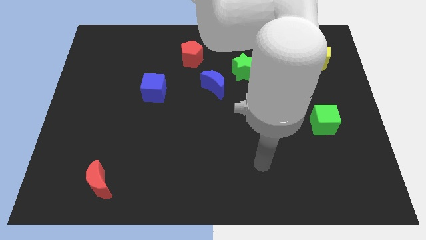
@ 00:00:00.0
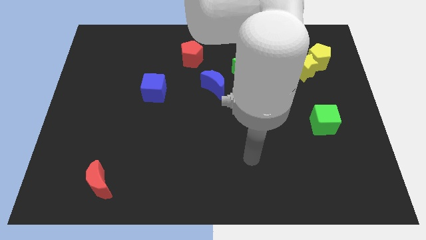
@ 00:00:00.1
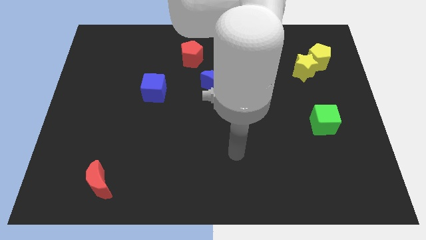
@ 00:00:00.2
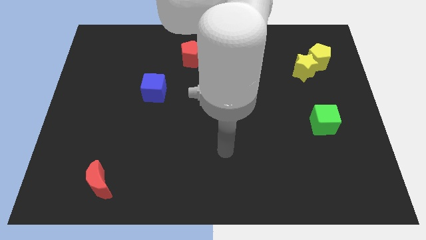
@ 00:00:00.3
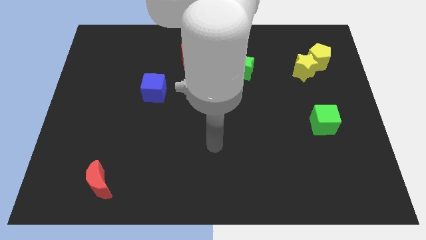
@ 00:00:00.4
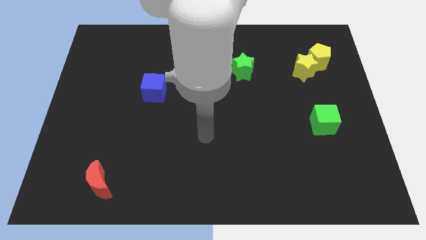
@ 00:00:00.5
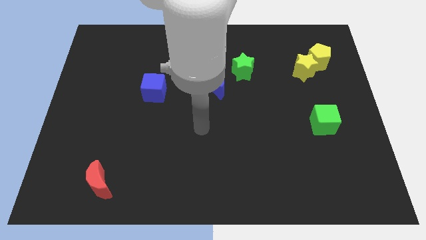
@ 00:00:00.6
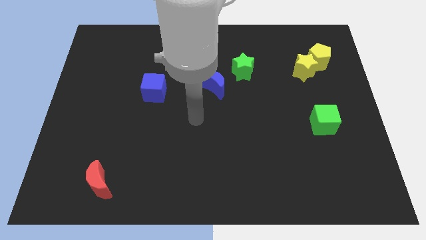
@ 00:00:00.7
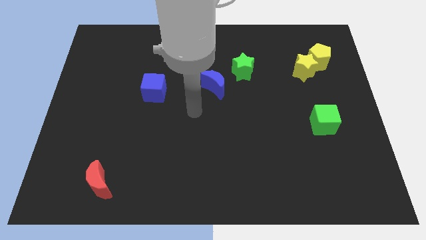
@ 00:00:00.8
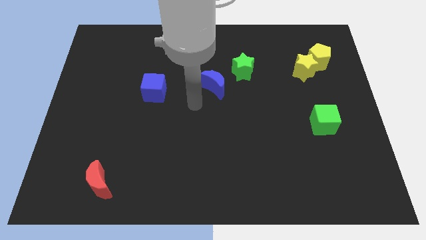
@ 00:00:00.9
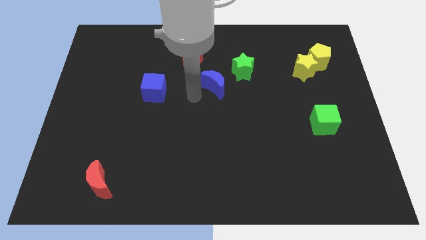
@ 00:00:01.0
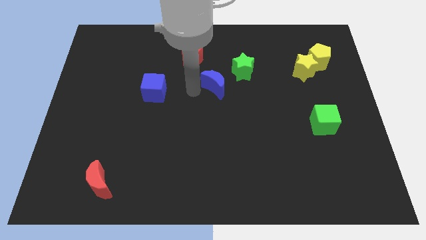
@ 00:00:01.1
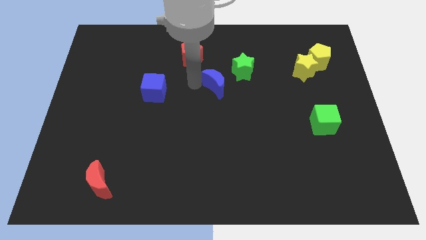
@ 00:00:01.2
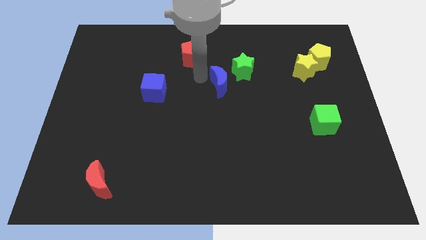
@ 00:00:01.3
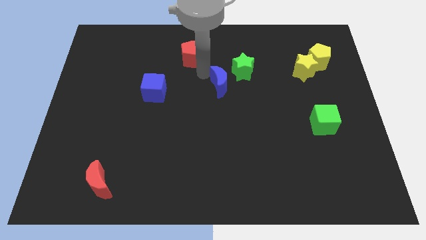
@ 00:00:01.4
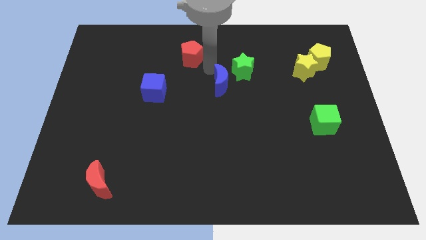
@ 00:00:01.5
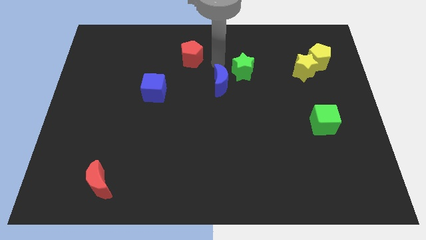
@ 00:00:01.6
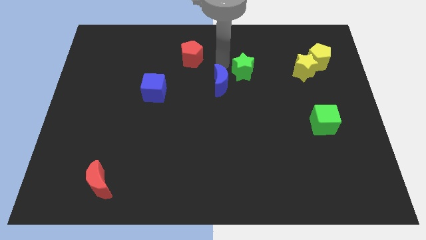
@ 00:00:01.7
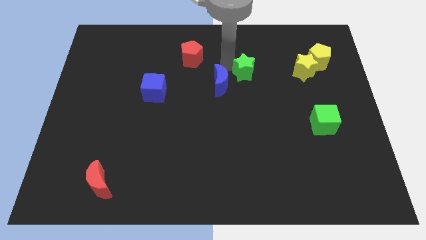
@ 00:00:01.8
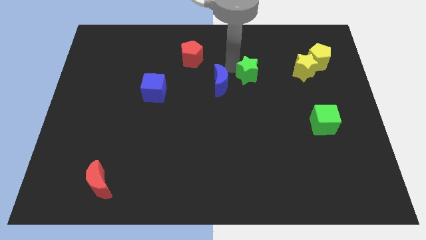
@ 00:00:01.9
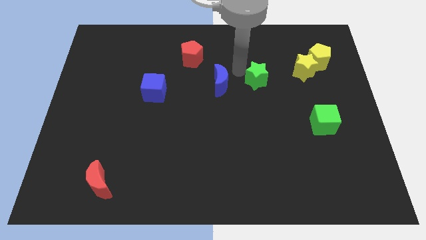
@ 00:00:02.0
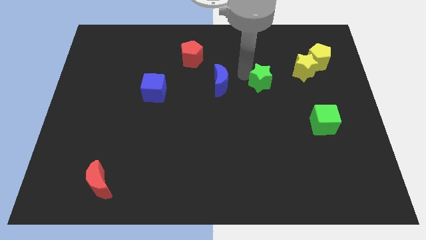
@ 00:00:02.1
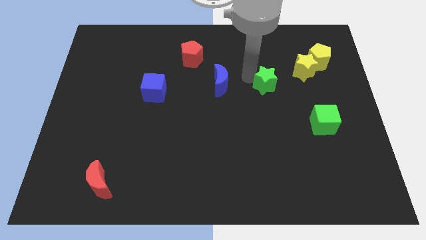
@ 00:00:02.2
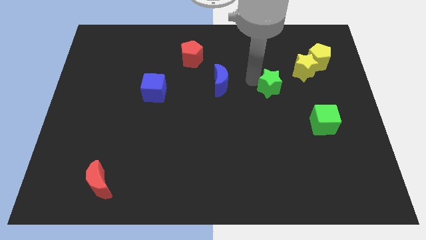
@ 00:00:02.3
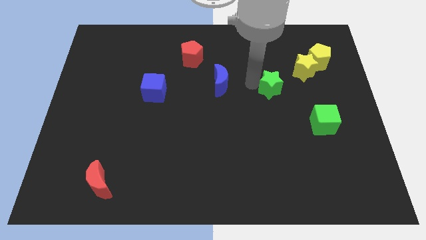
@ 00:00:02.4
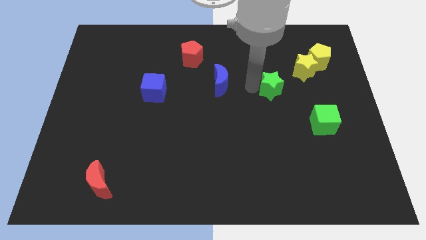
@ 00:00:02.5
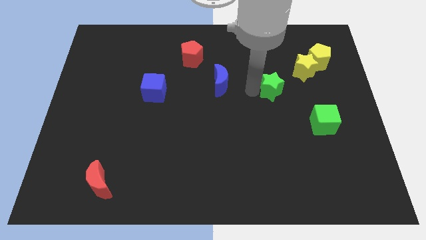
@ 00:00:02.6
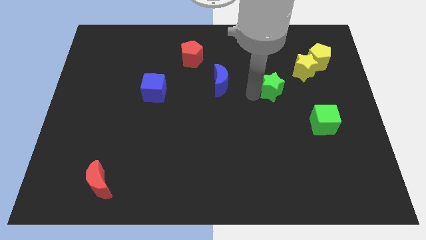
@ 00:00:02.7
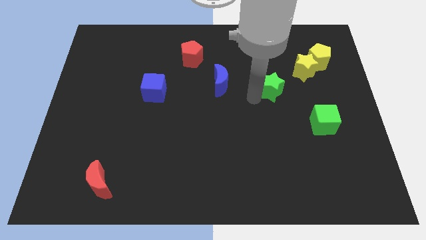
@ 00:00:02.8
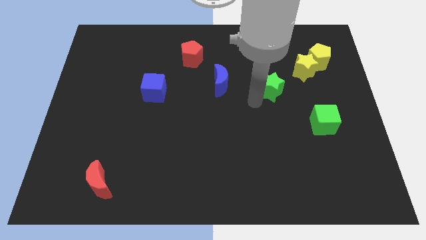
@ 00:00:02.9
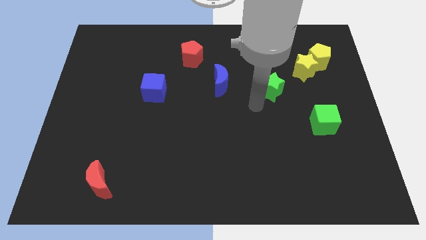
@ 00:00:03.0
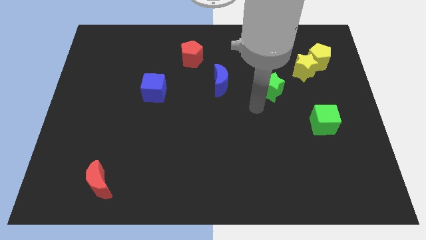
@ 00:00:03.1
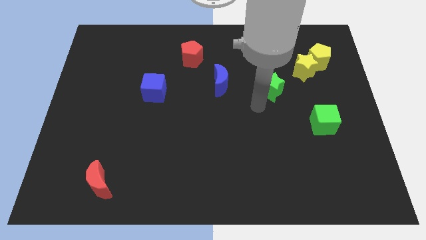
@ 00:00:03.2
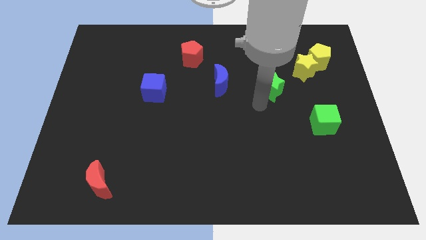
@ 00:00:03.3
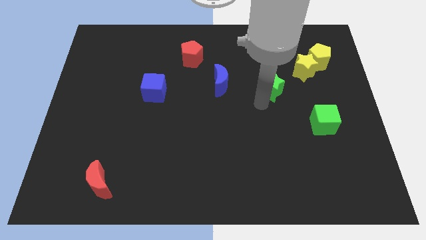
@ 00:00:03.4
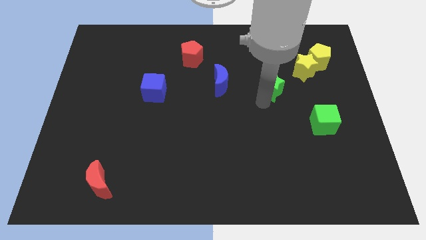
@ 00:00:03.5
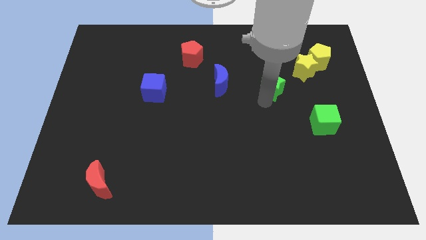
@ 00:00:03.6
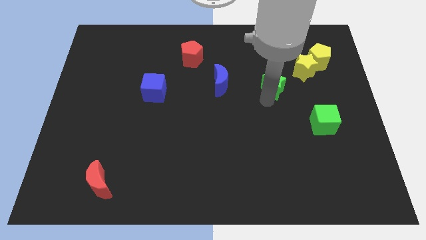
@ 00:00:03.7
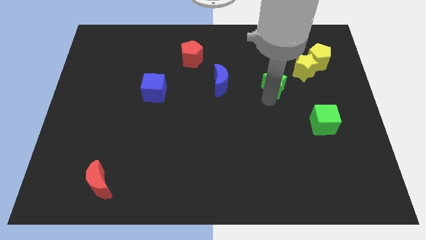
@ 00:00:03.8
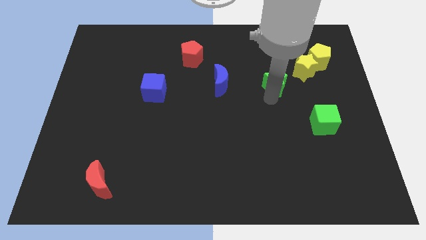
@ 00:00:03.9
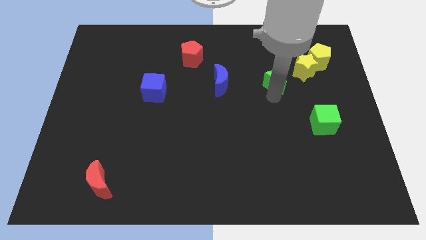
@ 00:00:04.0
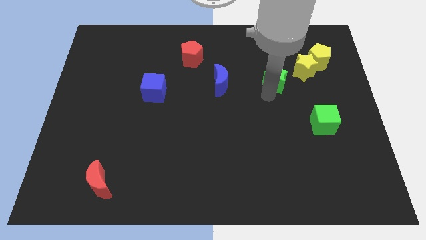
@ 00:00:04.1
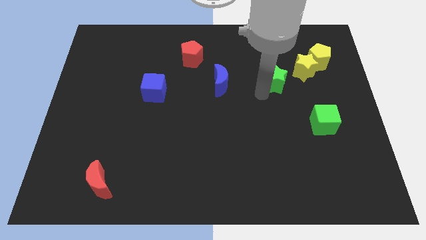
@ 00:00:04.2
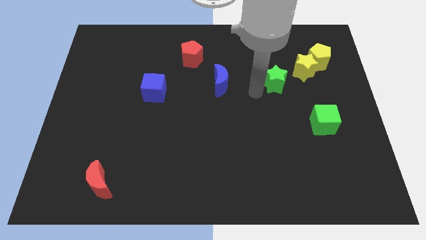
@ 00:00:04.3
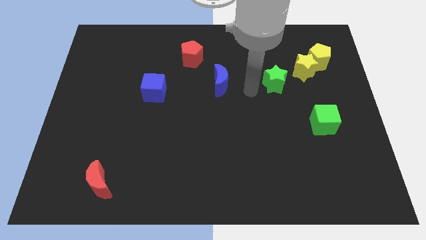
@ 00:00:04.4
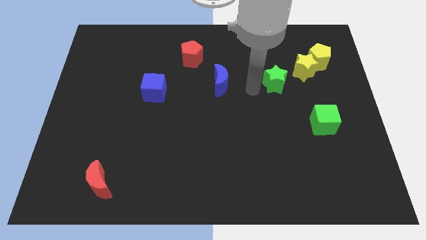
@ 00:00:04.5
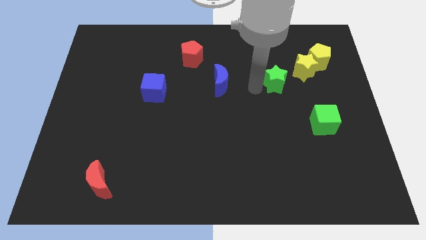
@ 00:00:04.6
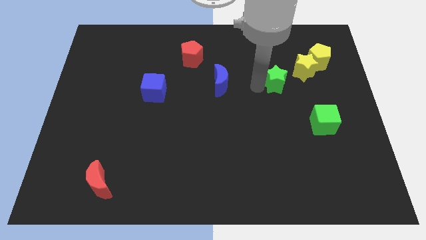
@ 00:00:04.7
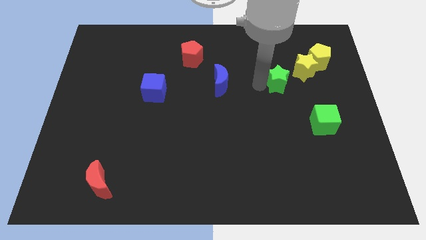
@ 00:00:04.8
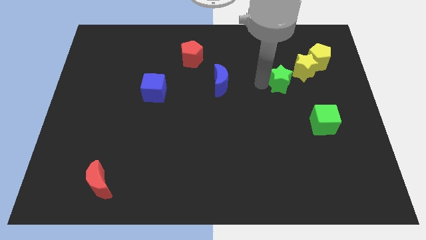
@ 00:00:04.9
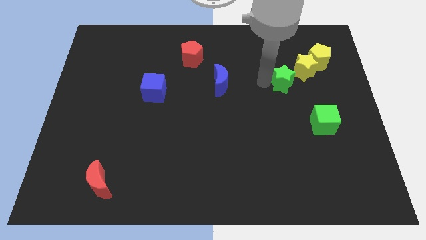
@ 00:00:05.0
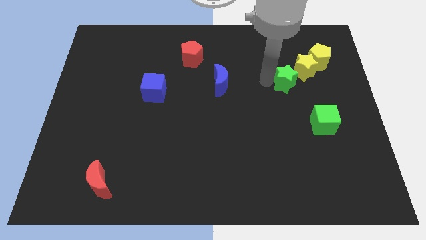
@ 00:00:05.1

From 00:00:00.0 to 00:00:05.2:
push the green star to the bottom left of the yellow pentagon

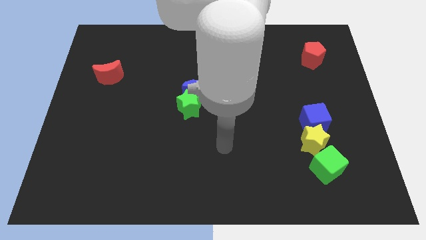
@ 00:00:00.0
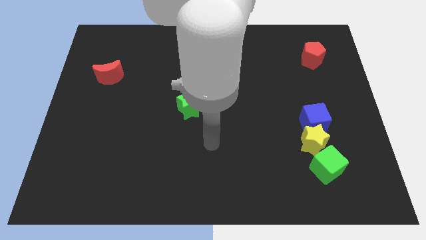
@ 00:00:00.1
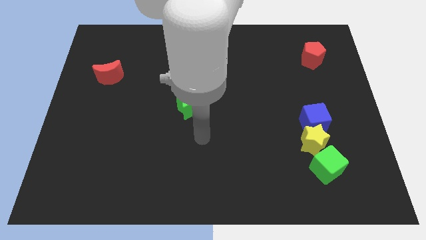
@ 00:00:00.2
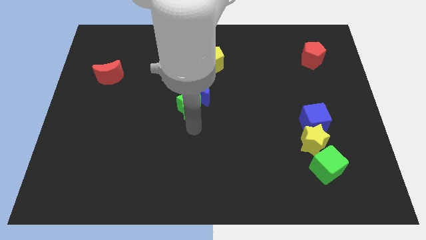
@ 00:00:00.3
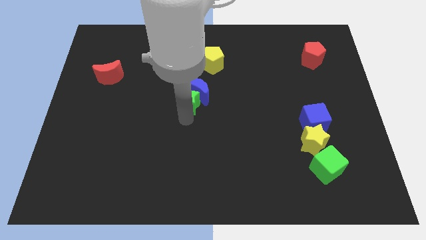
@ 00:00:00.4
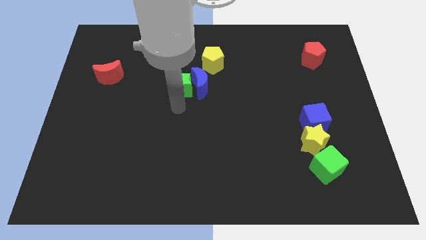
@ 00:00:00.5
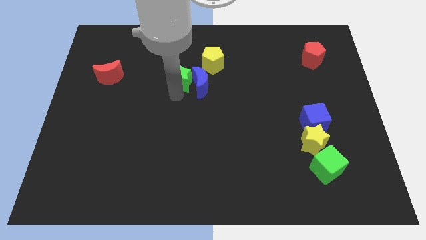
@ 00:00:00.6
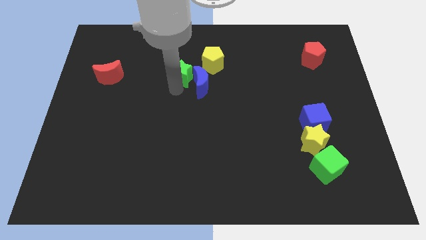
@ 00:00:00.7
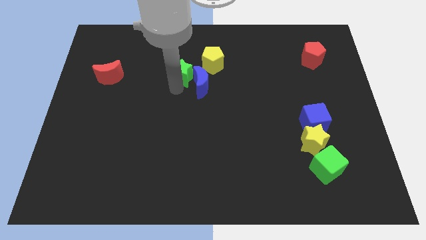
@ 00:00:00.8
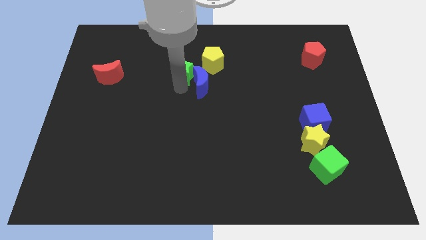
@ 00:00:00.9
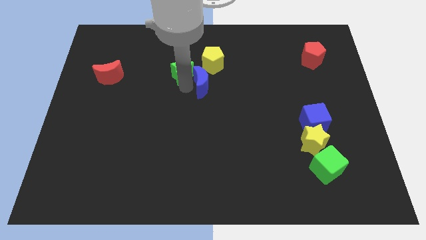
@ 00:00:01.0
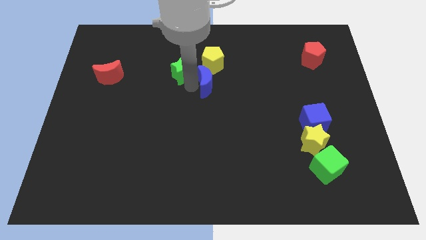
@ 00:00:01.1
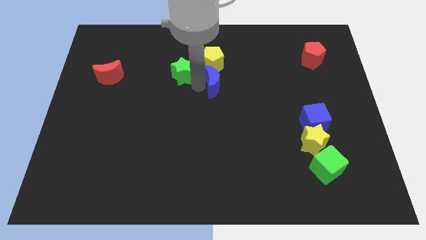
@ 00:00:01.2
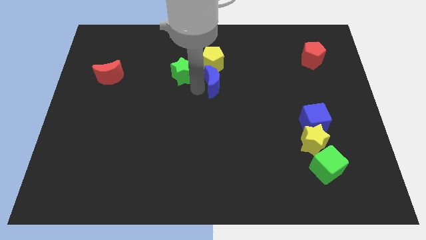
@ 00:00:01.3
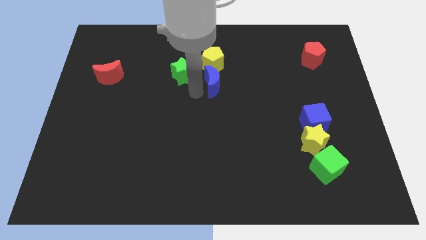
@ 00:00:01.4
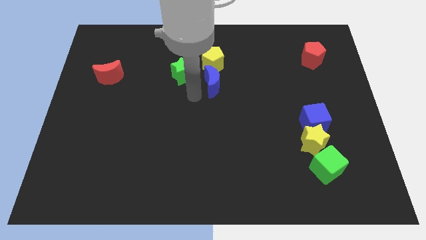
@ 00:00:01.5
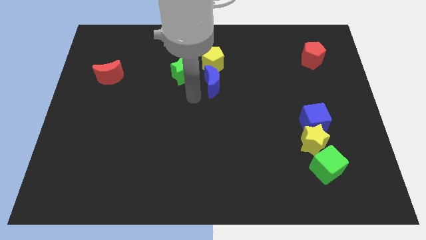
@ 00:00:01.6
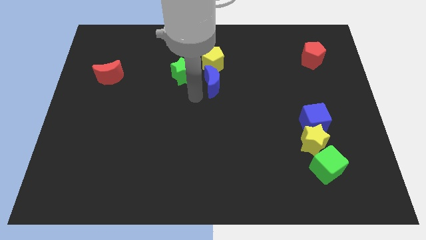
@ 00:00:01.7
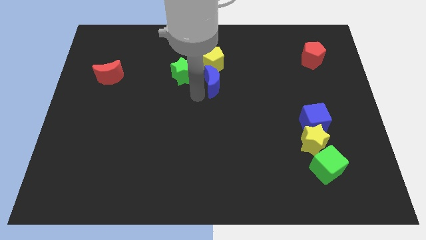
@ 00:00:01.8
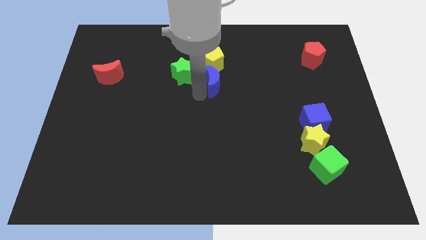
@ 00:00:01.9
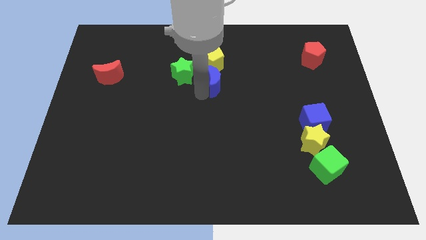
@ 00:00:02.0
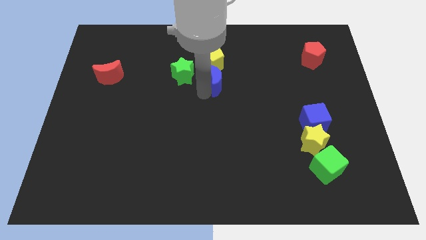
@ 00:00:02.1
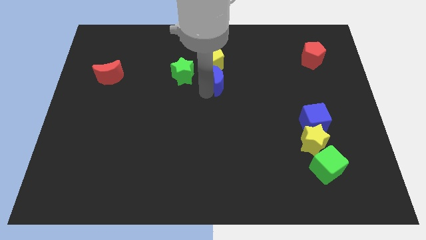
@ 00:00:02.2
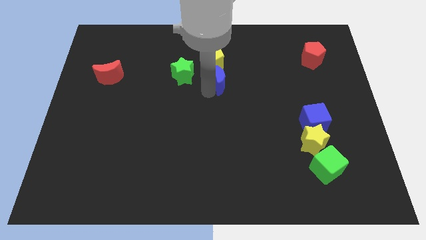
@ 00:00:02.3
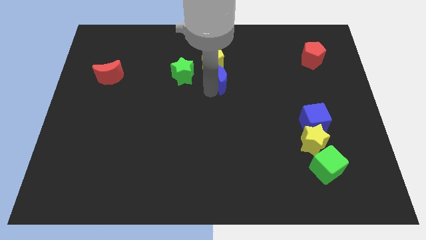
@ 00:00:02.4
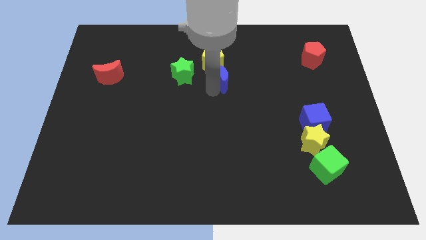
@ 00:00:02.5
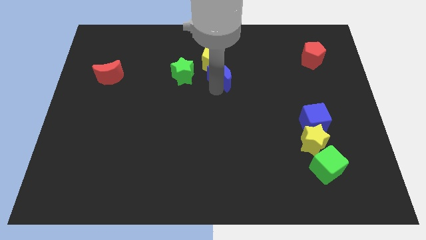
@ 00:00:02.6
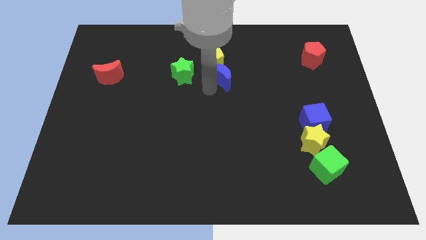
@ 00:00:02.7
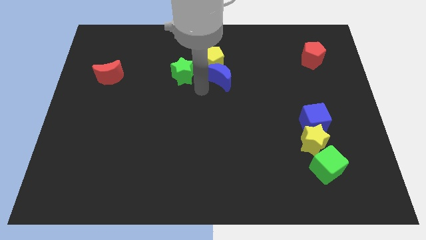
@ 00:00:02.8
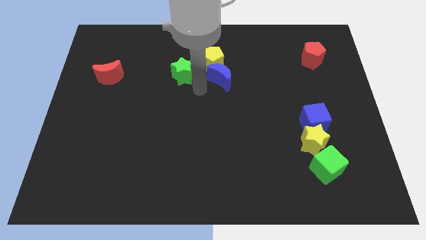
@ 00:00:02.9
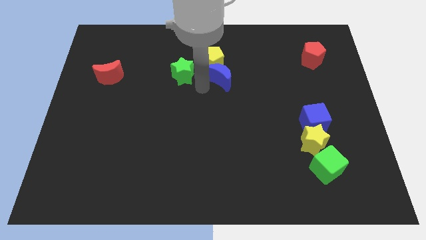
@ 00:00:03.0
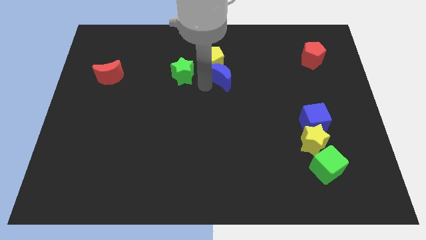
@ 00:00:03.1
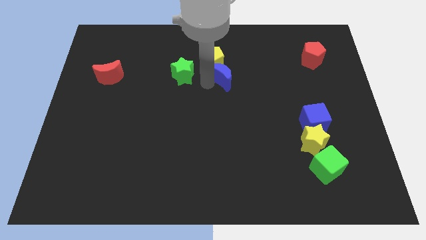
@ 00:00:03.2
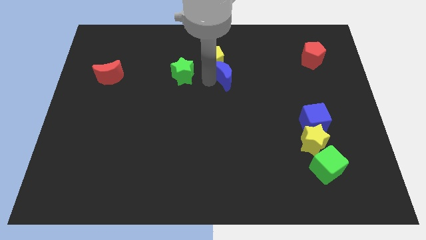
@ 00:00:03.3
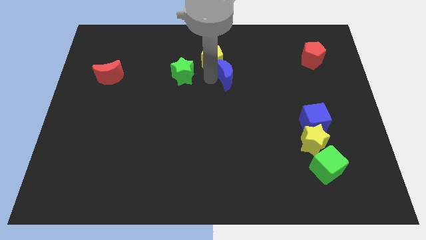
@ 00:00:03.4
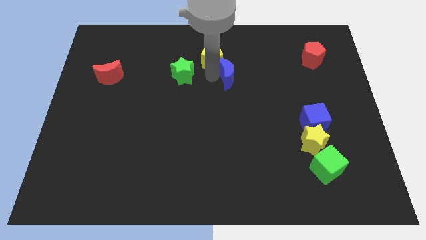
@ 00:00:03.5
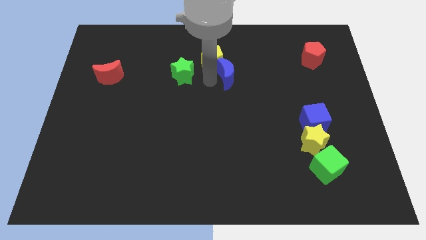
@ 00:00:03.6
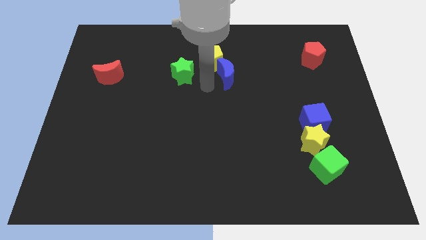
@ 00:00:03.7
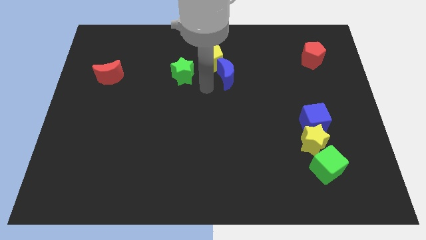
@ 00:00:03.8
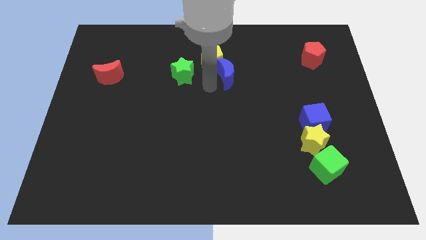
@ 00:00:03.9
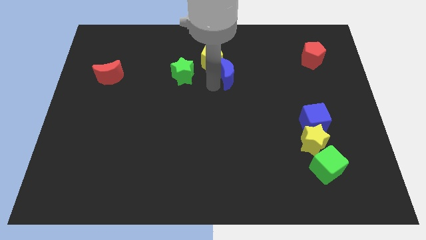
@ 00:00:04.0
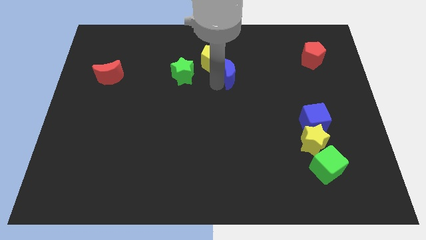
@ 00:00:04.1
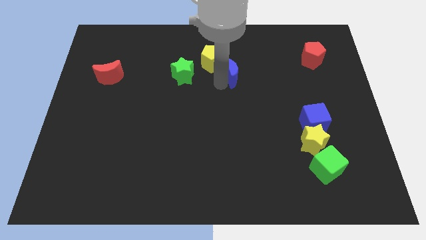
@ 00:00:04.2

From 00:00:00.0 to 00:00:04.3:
push the blue moon to the right side of the yellow pentagon
